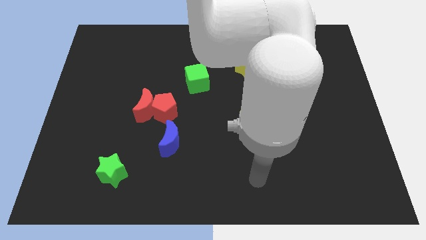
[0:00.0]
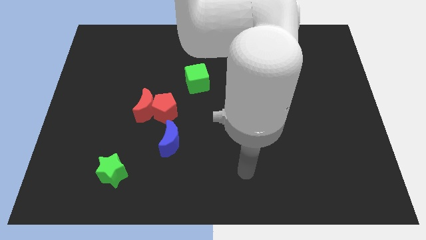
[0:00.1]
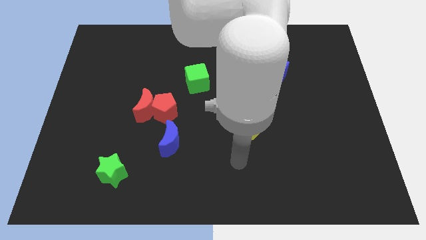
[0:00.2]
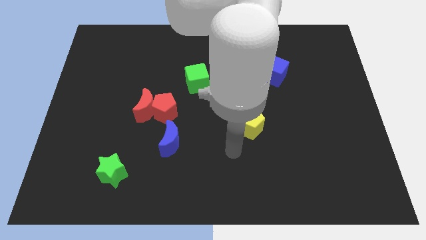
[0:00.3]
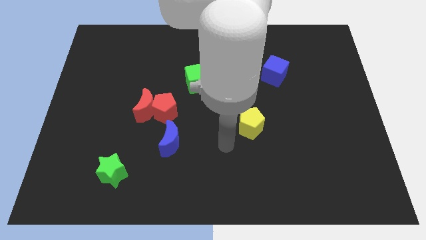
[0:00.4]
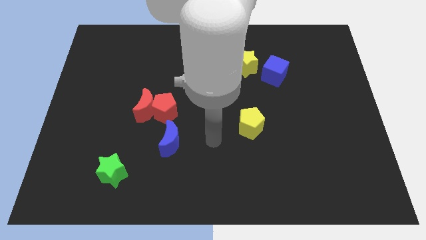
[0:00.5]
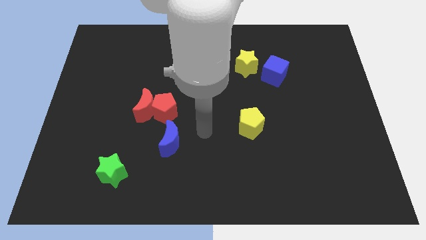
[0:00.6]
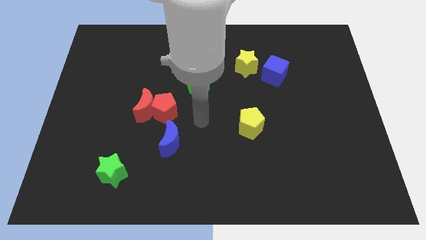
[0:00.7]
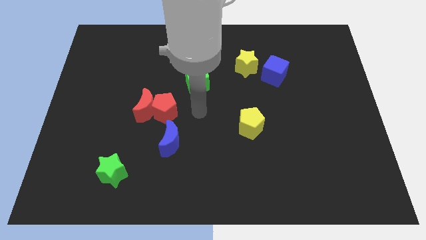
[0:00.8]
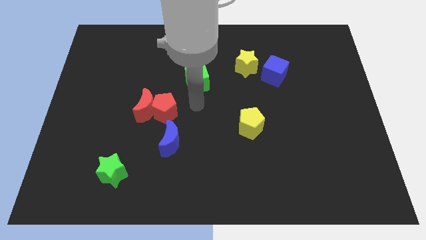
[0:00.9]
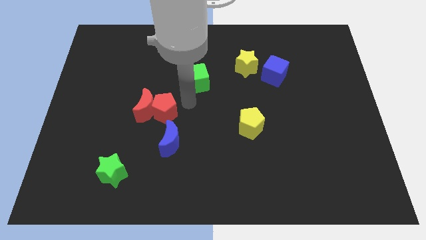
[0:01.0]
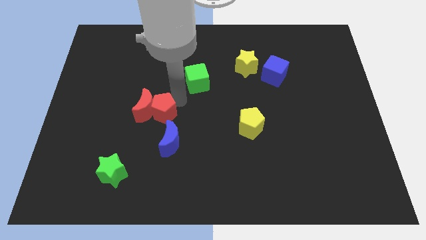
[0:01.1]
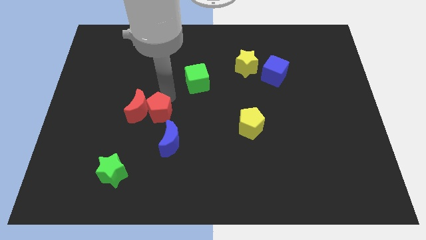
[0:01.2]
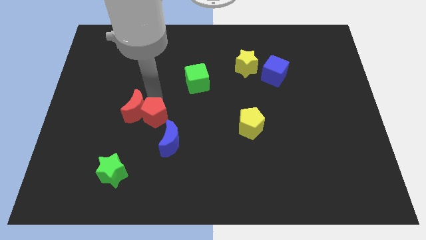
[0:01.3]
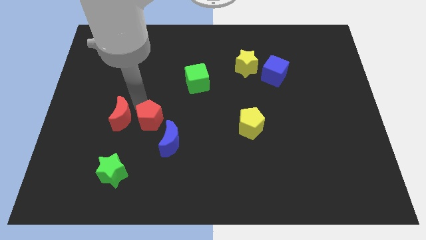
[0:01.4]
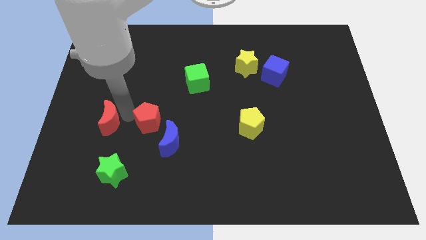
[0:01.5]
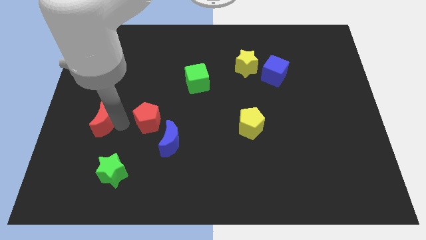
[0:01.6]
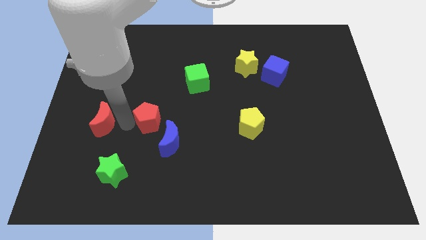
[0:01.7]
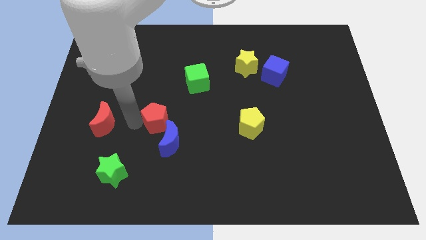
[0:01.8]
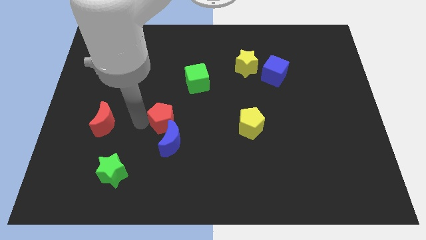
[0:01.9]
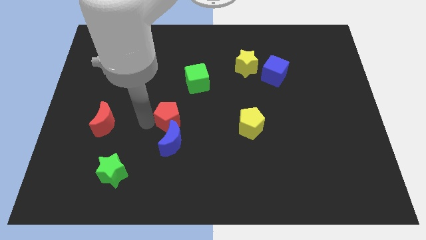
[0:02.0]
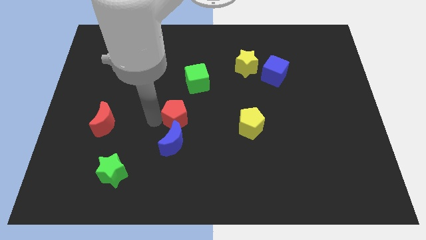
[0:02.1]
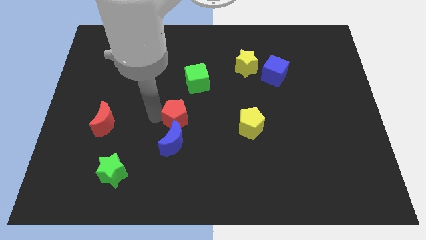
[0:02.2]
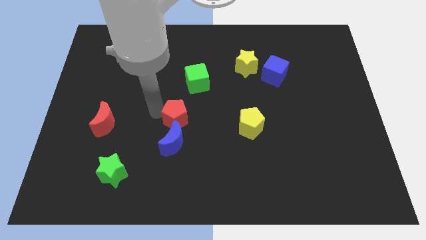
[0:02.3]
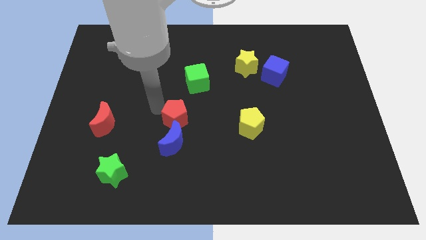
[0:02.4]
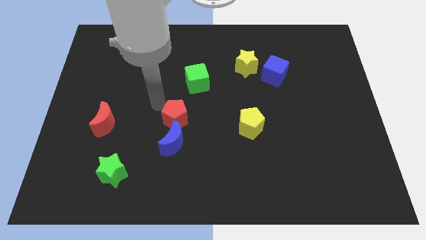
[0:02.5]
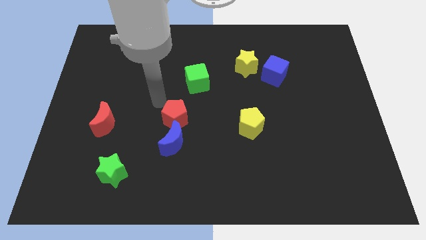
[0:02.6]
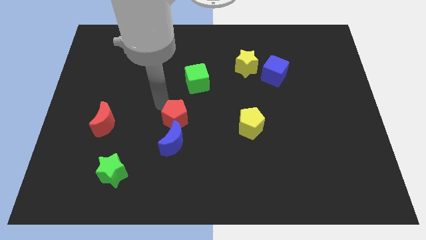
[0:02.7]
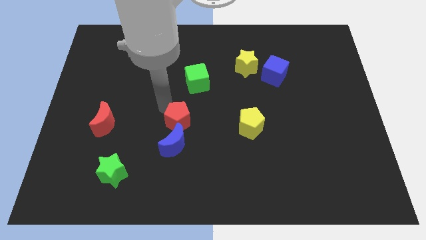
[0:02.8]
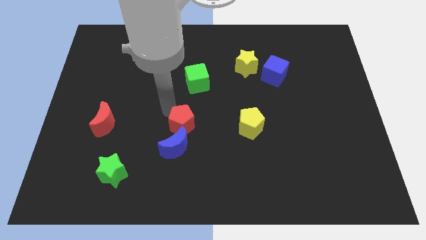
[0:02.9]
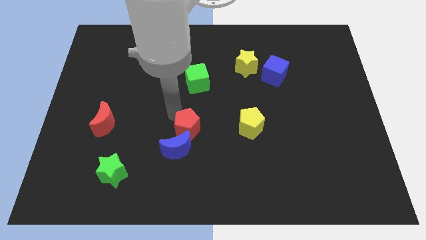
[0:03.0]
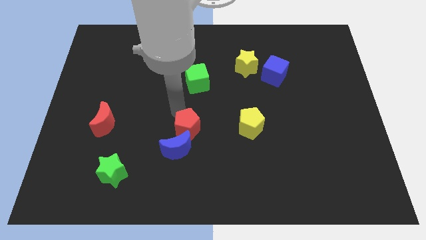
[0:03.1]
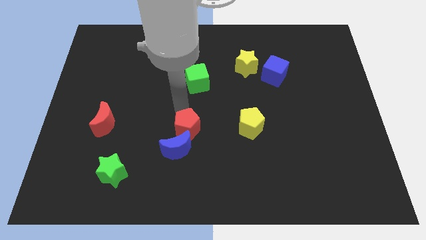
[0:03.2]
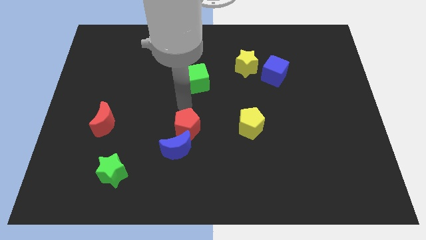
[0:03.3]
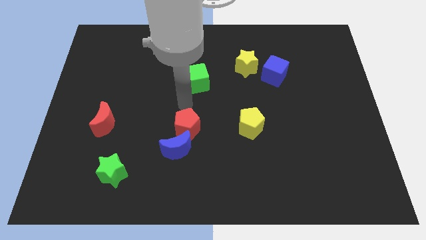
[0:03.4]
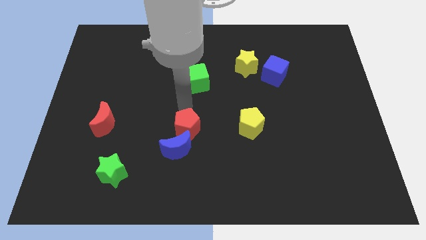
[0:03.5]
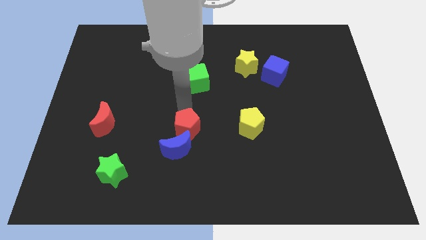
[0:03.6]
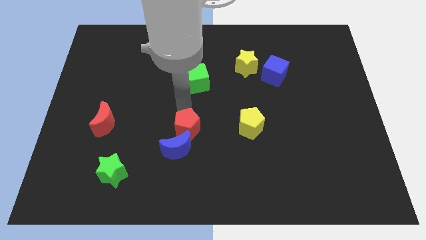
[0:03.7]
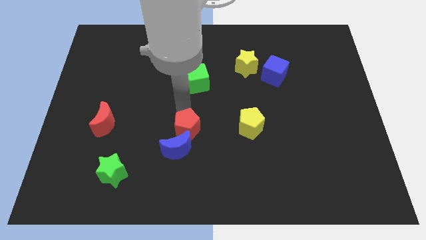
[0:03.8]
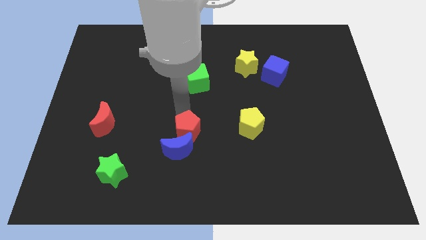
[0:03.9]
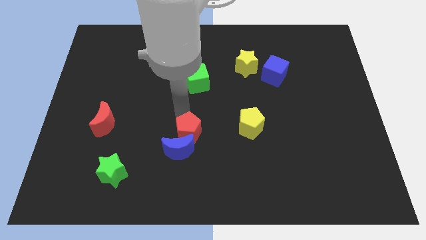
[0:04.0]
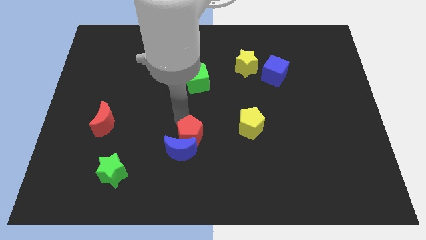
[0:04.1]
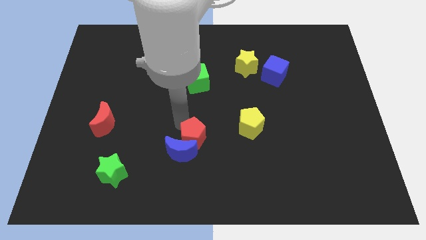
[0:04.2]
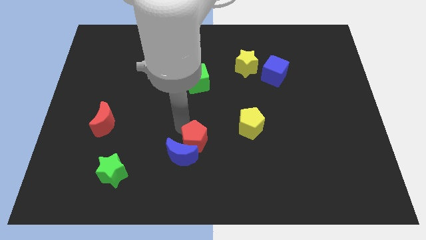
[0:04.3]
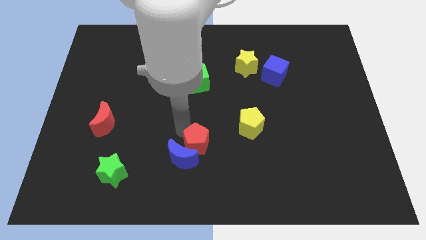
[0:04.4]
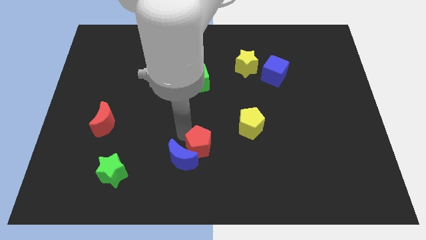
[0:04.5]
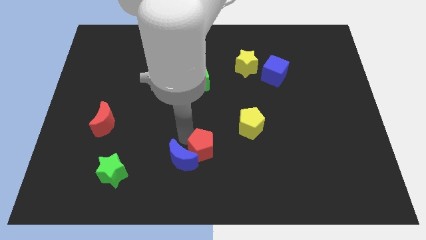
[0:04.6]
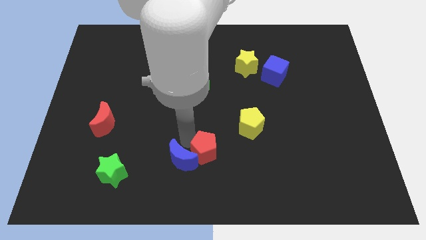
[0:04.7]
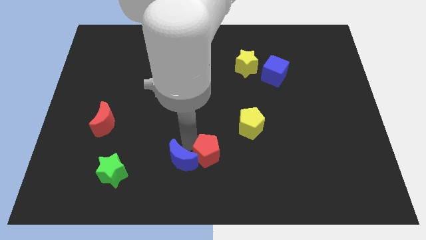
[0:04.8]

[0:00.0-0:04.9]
push the red pentagon diagonally down and to the right of the blue moon

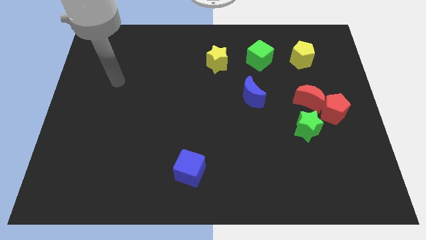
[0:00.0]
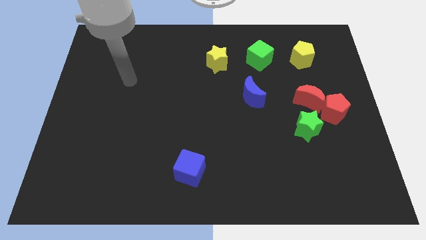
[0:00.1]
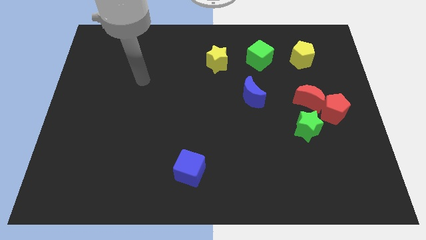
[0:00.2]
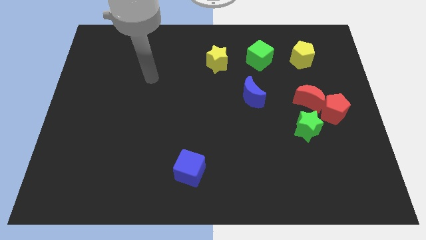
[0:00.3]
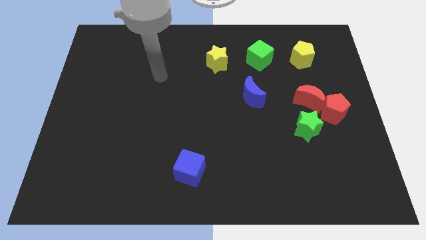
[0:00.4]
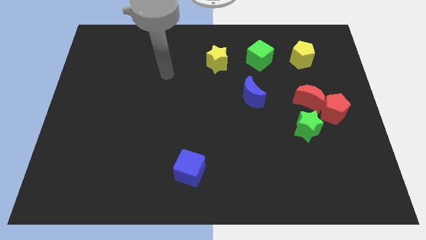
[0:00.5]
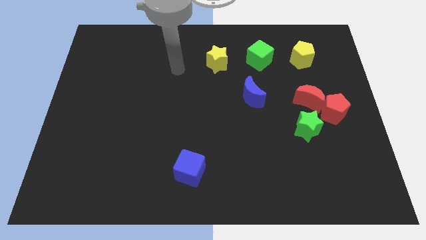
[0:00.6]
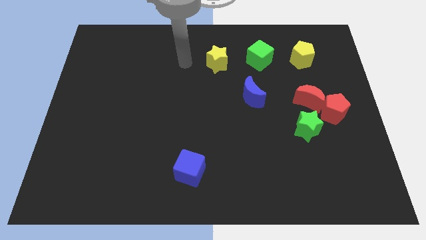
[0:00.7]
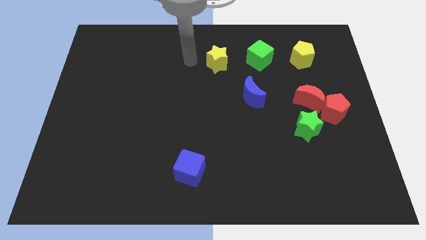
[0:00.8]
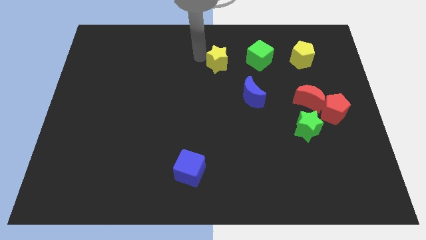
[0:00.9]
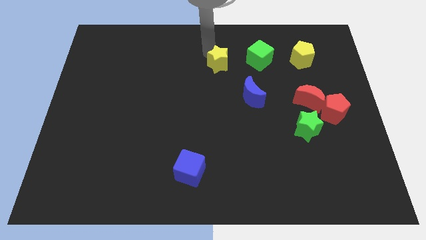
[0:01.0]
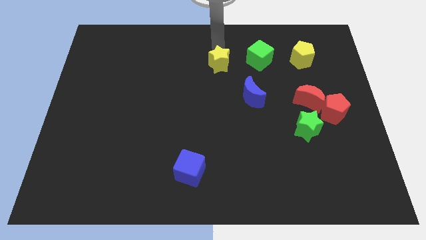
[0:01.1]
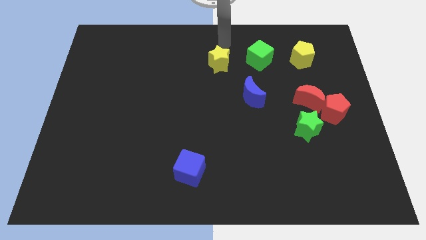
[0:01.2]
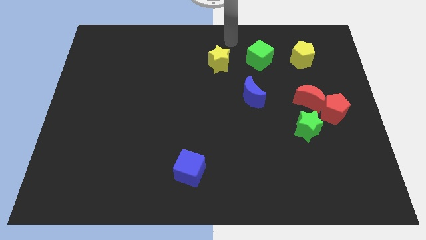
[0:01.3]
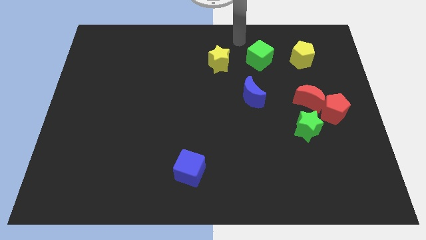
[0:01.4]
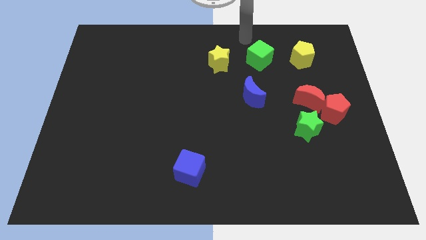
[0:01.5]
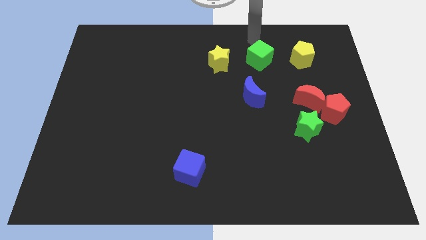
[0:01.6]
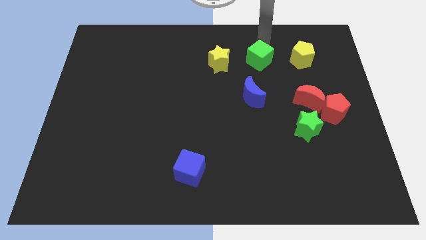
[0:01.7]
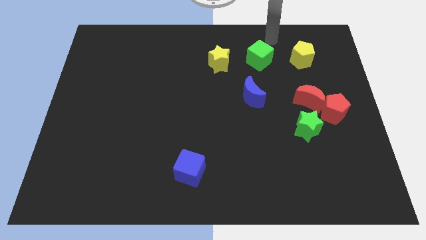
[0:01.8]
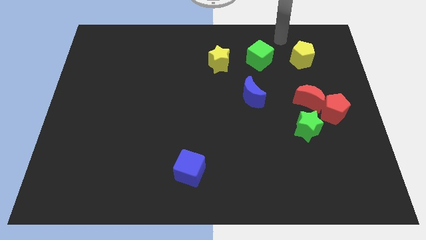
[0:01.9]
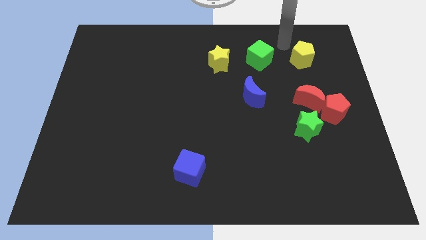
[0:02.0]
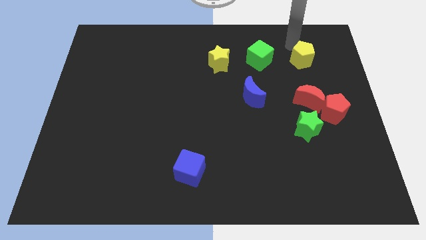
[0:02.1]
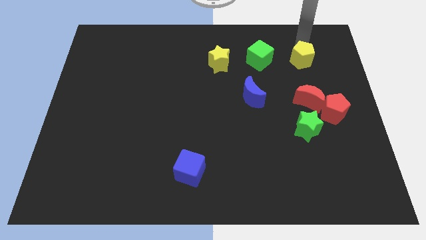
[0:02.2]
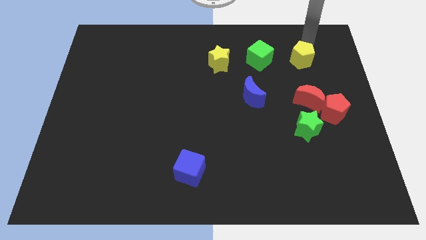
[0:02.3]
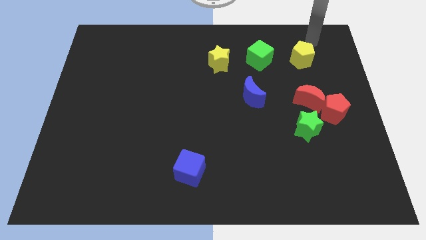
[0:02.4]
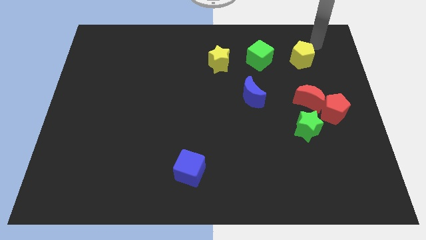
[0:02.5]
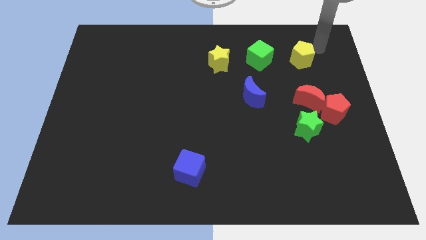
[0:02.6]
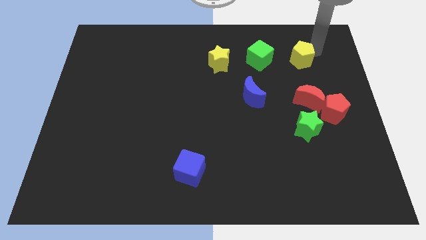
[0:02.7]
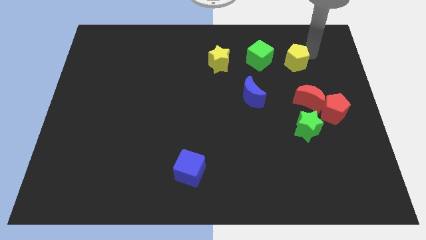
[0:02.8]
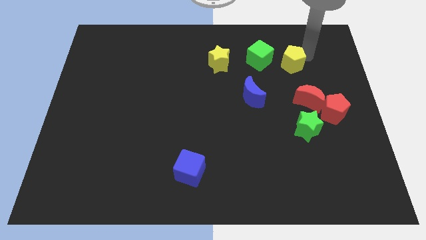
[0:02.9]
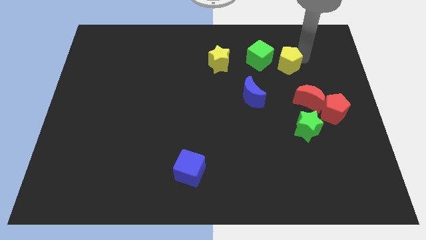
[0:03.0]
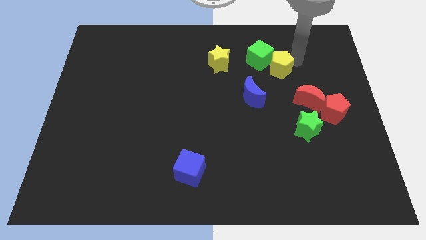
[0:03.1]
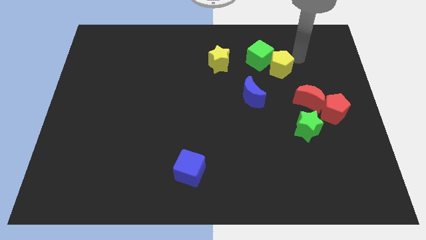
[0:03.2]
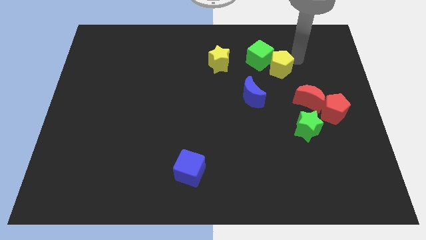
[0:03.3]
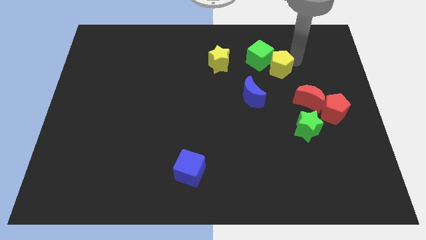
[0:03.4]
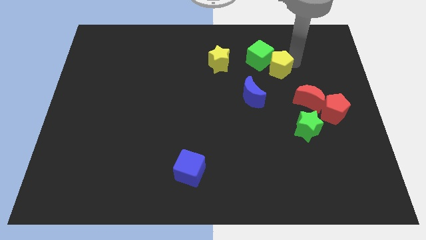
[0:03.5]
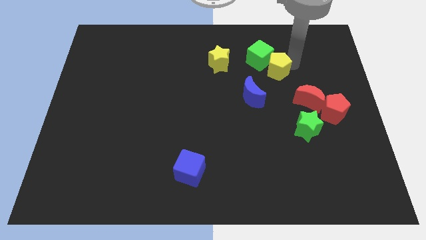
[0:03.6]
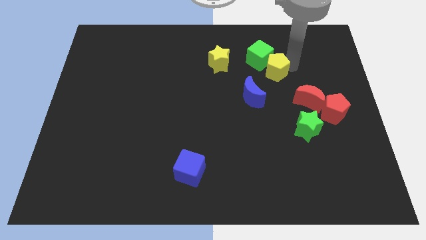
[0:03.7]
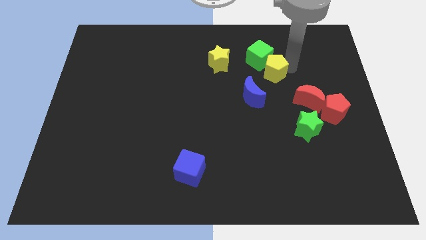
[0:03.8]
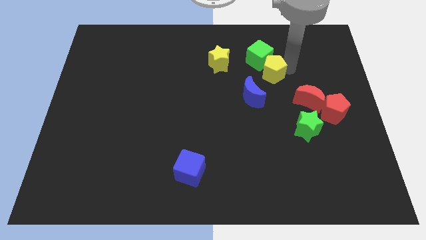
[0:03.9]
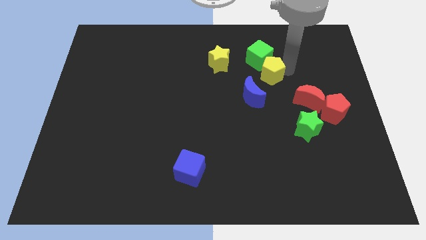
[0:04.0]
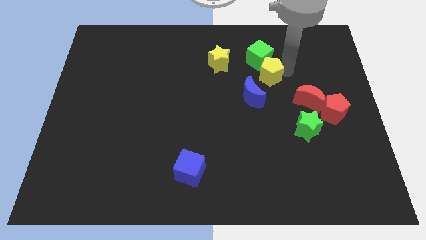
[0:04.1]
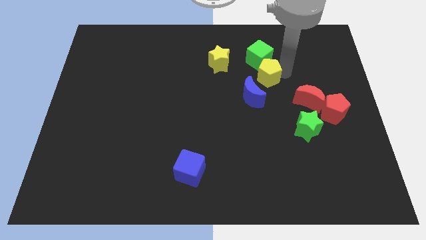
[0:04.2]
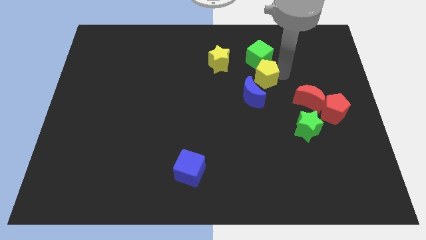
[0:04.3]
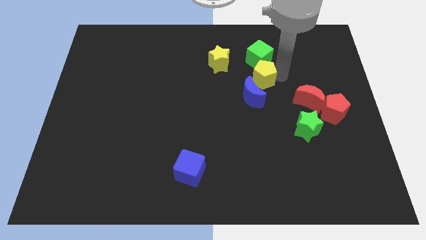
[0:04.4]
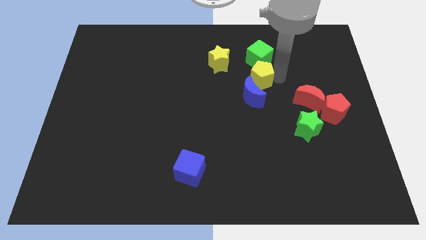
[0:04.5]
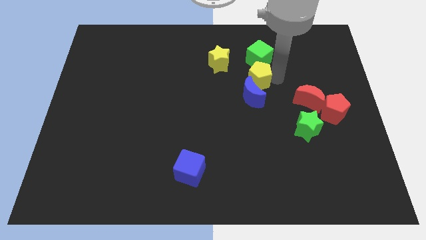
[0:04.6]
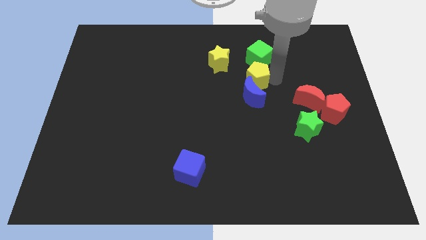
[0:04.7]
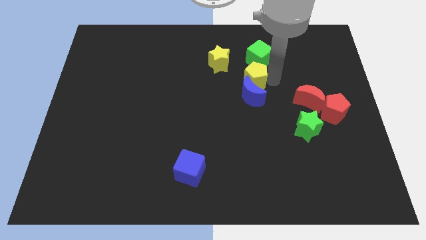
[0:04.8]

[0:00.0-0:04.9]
move the yellow pentagon to the top left side of the blue moon
